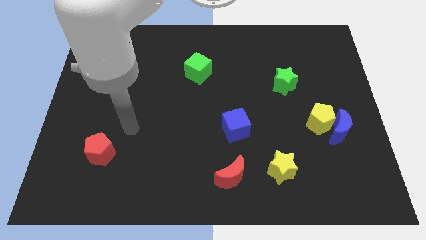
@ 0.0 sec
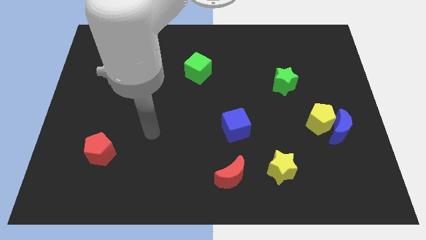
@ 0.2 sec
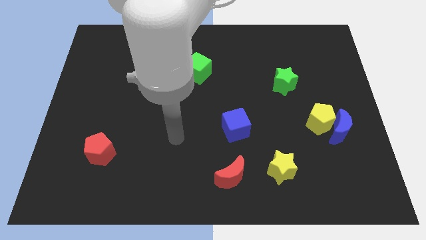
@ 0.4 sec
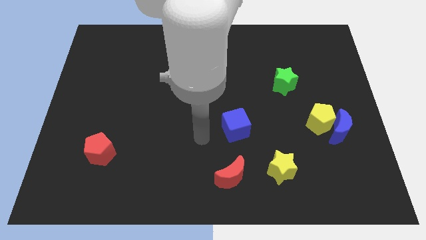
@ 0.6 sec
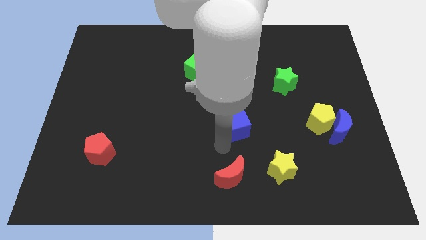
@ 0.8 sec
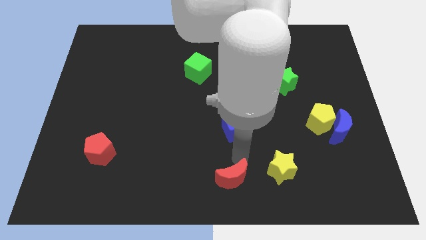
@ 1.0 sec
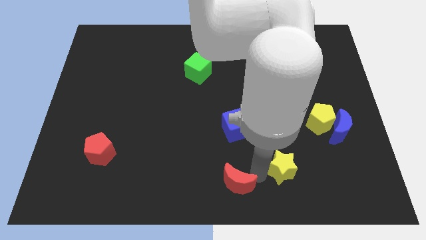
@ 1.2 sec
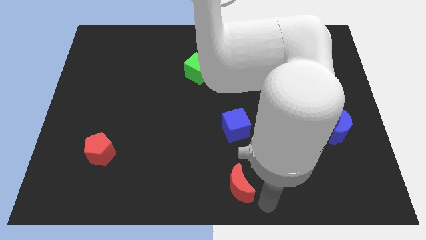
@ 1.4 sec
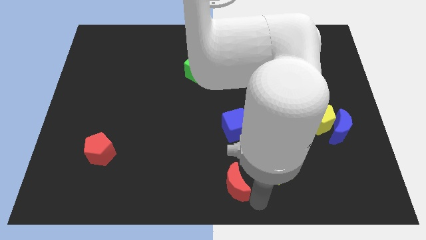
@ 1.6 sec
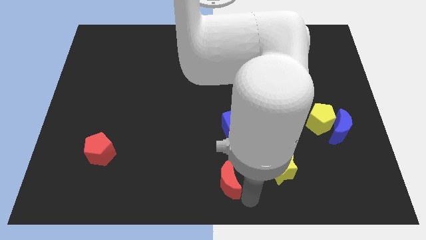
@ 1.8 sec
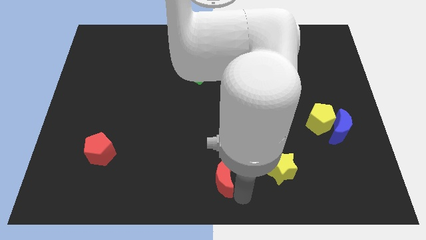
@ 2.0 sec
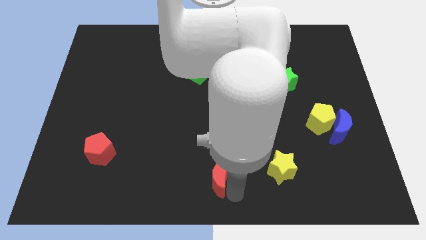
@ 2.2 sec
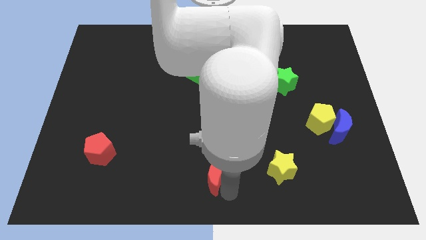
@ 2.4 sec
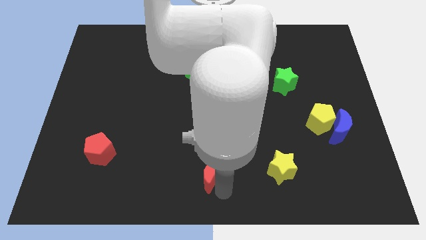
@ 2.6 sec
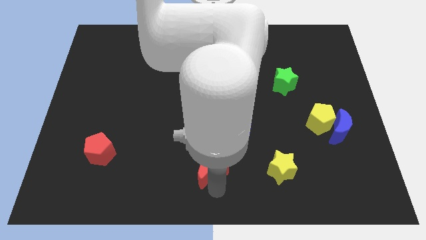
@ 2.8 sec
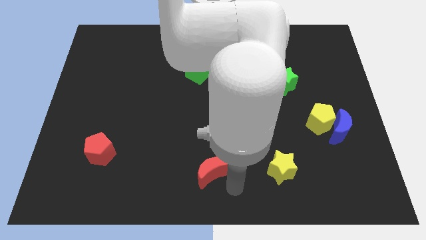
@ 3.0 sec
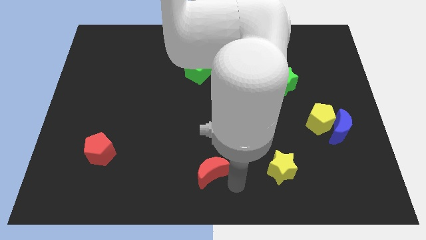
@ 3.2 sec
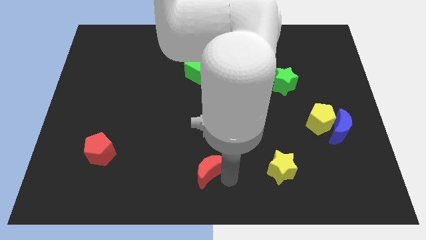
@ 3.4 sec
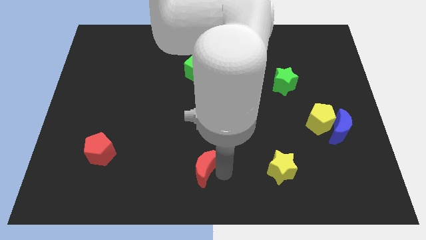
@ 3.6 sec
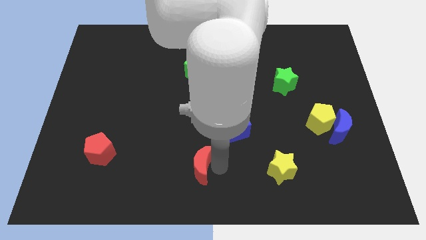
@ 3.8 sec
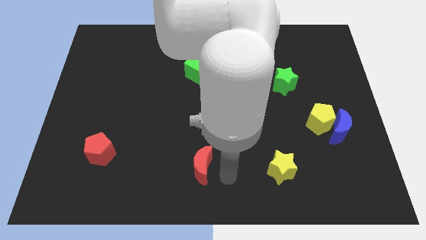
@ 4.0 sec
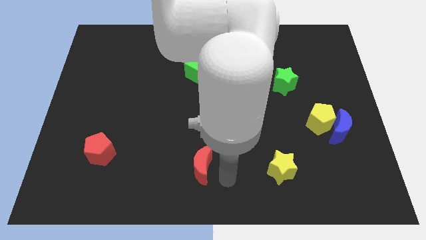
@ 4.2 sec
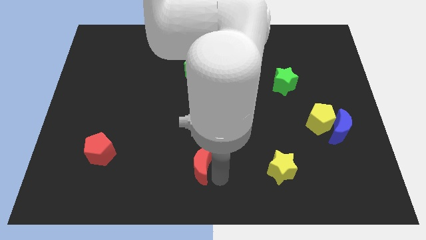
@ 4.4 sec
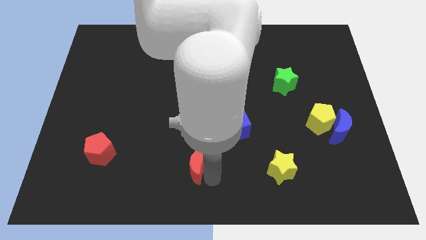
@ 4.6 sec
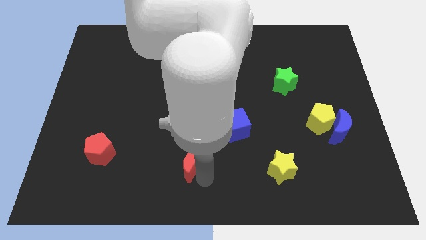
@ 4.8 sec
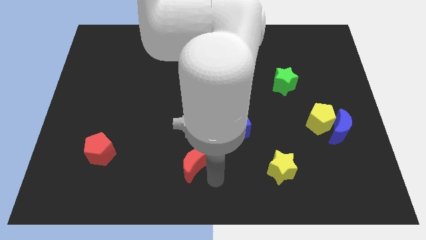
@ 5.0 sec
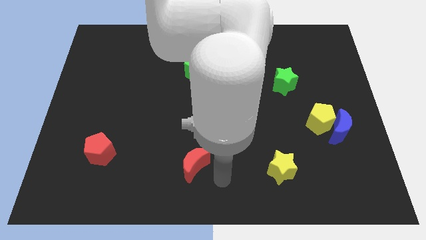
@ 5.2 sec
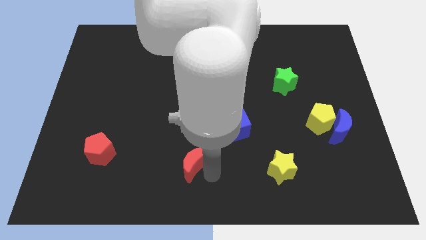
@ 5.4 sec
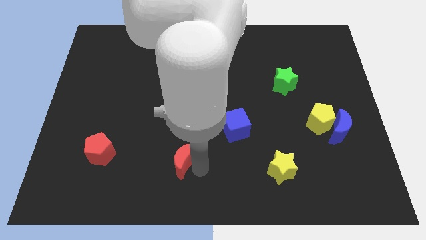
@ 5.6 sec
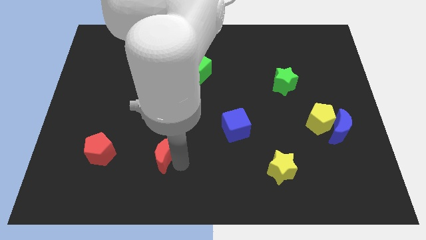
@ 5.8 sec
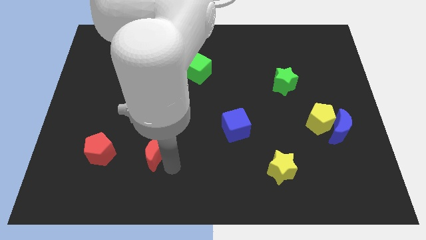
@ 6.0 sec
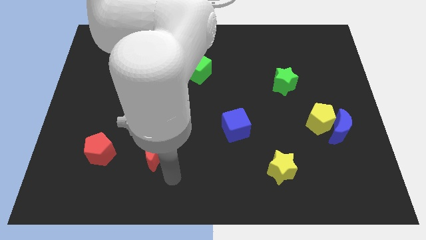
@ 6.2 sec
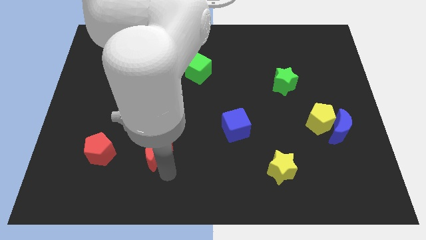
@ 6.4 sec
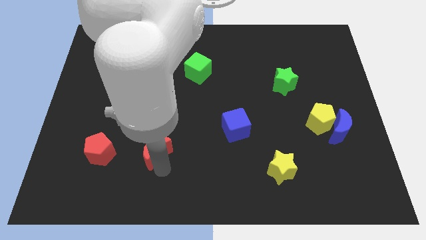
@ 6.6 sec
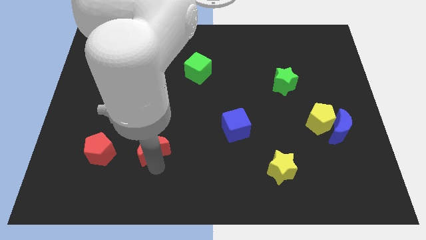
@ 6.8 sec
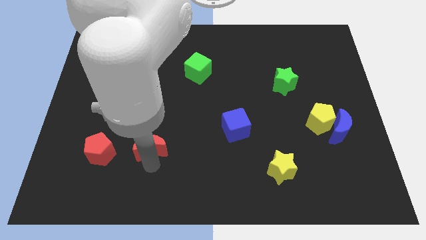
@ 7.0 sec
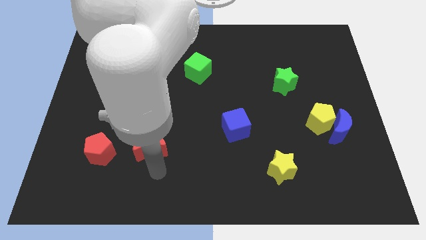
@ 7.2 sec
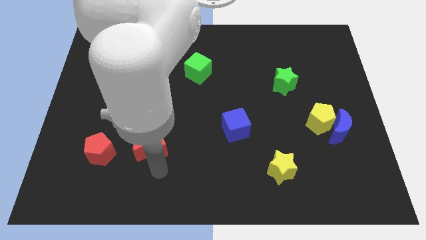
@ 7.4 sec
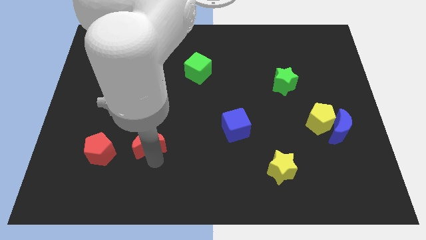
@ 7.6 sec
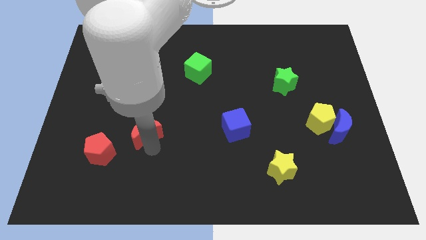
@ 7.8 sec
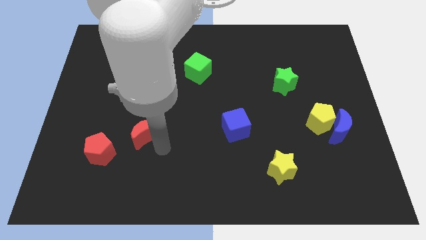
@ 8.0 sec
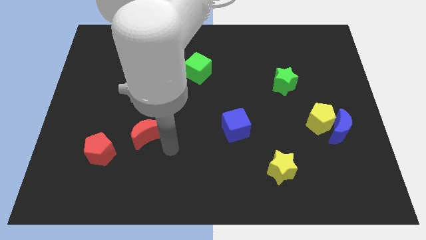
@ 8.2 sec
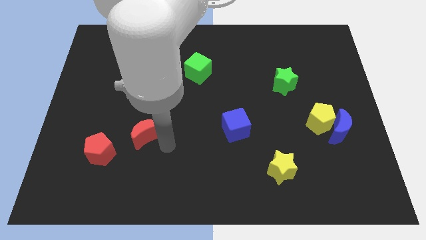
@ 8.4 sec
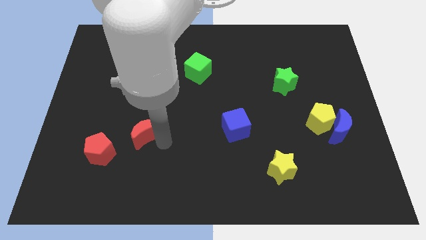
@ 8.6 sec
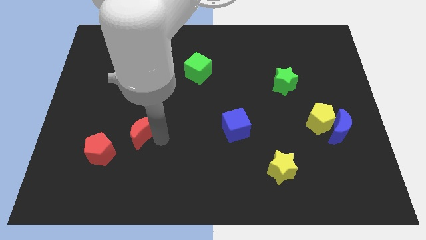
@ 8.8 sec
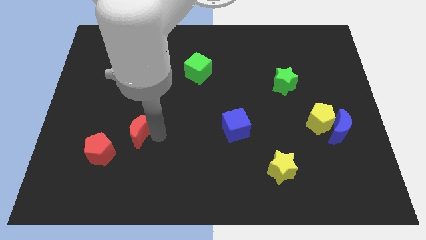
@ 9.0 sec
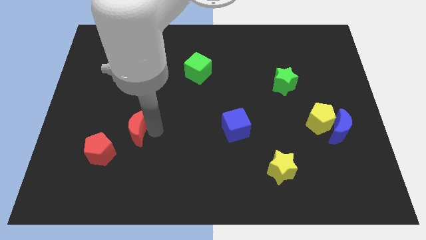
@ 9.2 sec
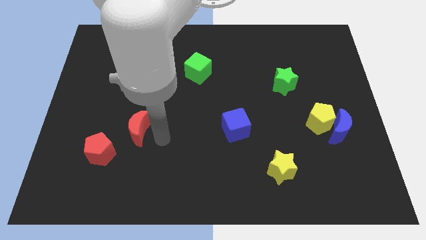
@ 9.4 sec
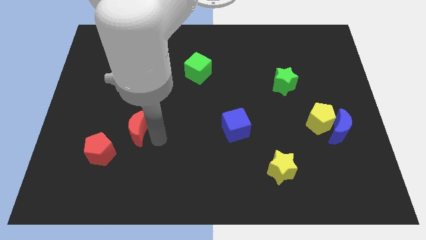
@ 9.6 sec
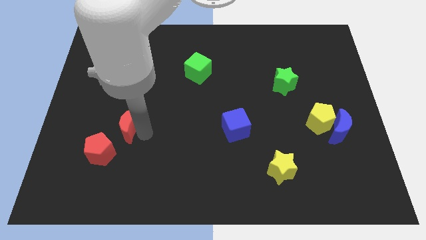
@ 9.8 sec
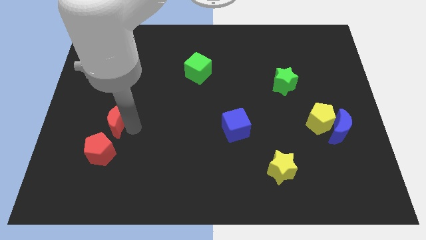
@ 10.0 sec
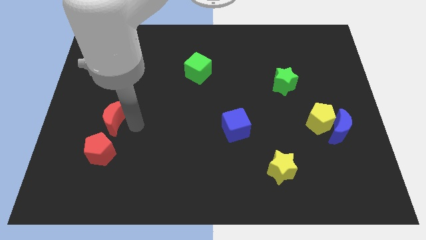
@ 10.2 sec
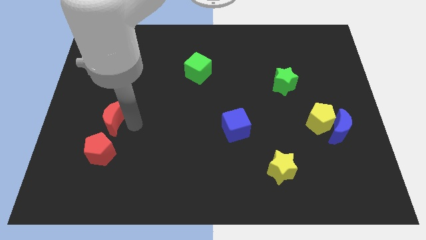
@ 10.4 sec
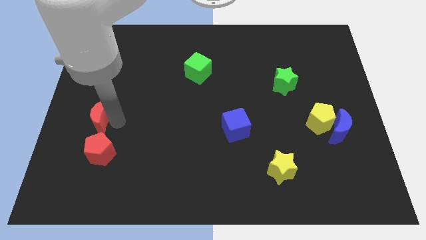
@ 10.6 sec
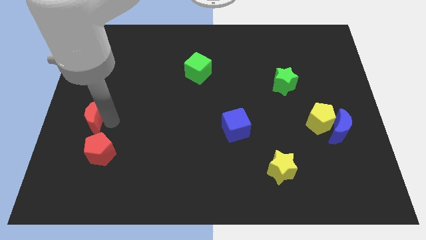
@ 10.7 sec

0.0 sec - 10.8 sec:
slide the red moon to the center left

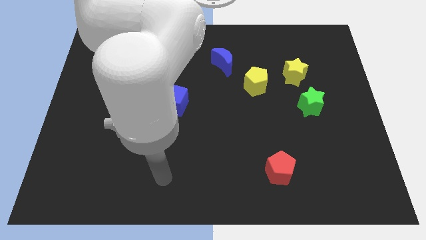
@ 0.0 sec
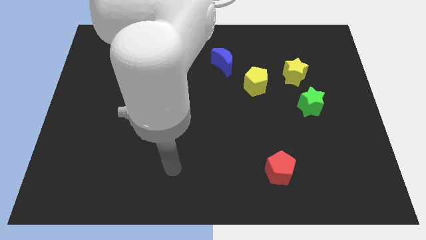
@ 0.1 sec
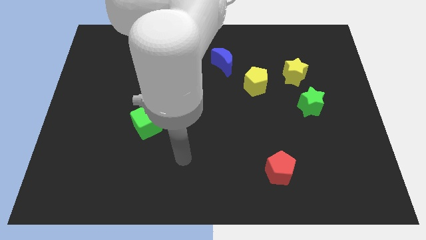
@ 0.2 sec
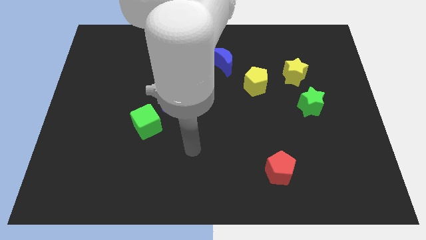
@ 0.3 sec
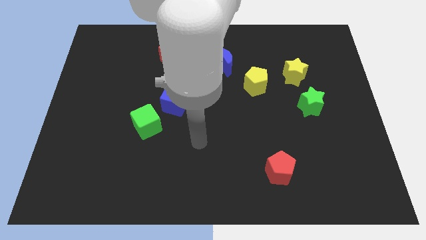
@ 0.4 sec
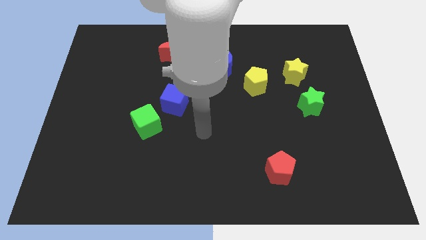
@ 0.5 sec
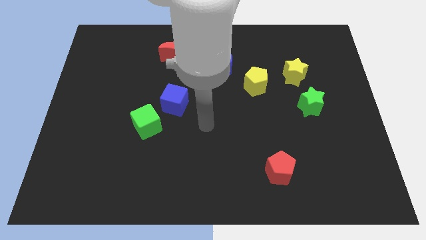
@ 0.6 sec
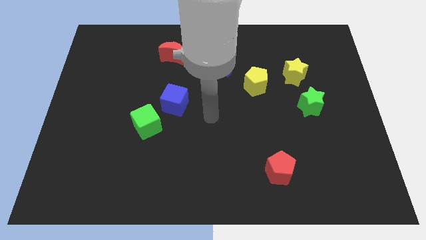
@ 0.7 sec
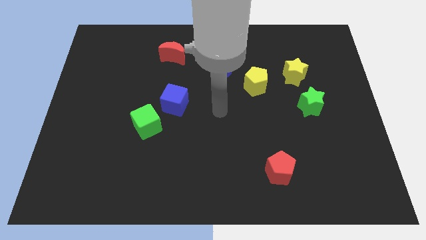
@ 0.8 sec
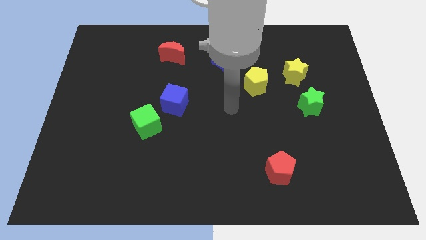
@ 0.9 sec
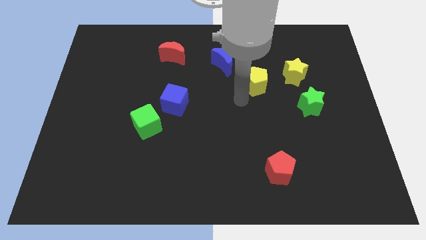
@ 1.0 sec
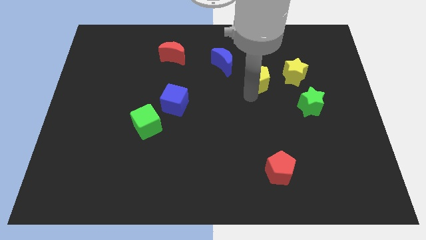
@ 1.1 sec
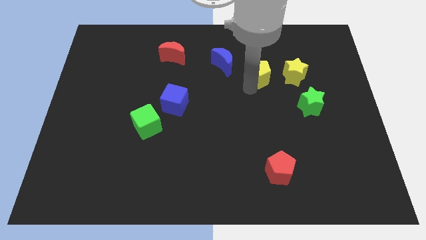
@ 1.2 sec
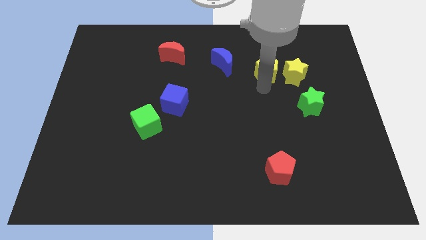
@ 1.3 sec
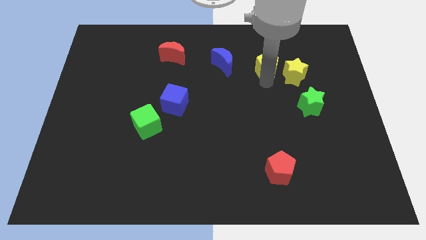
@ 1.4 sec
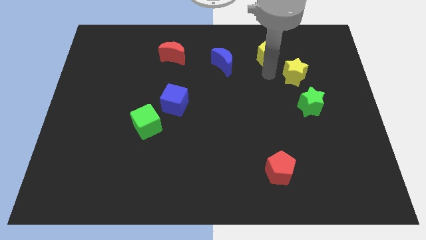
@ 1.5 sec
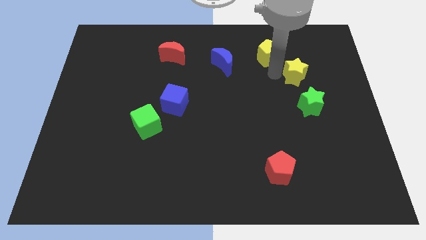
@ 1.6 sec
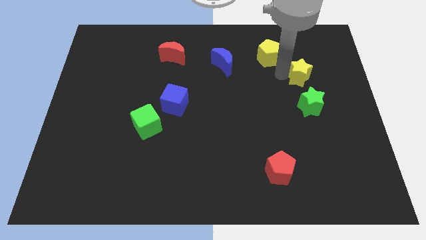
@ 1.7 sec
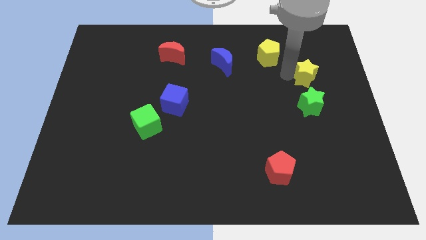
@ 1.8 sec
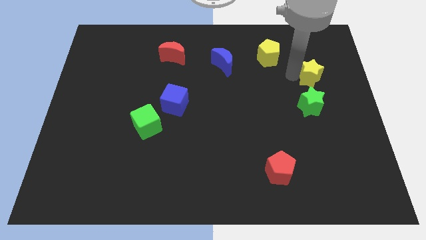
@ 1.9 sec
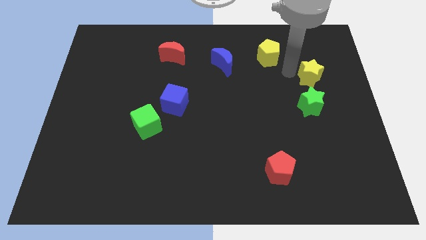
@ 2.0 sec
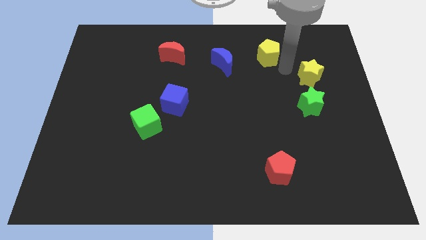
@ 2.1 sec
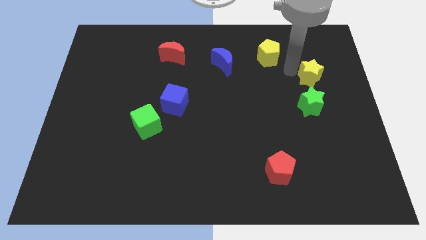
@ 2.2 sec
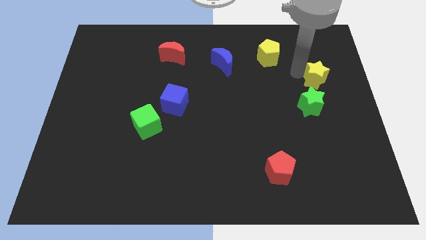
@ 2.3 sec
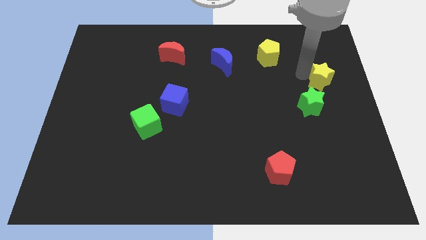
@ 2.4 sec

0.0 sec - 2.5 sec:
slide the yellow star to the right side of the board
